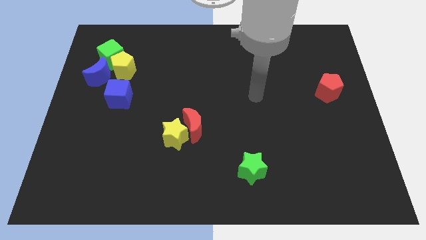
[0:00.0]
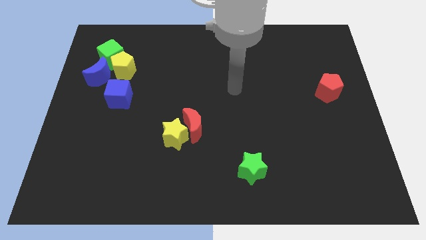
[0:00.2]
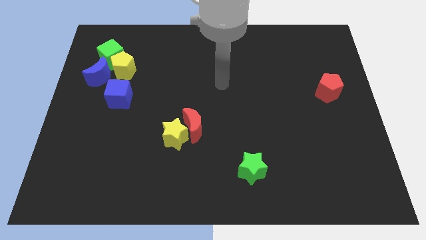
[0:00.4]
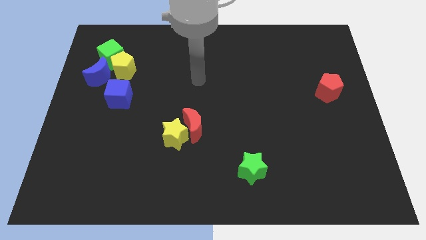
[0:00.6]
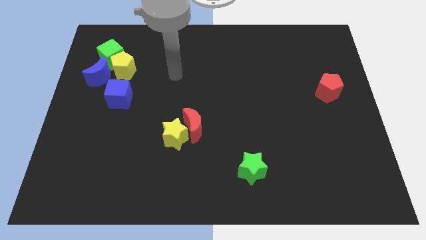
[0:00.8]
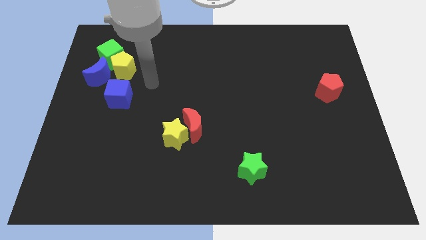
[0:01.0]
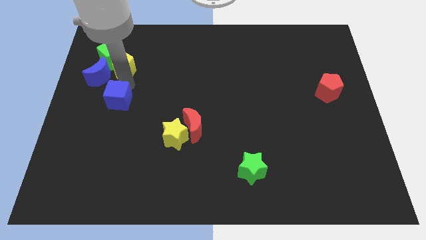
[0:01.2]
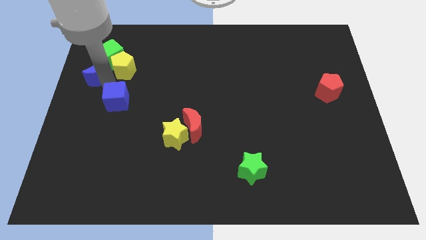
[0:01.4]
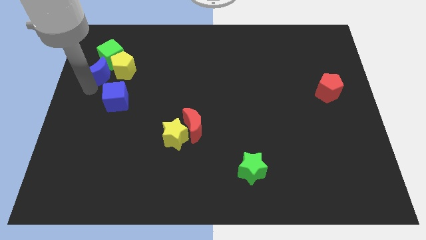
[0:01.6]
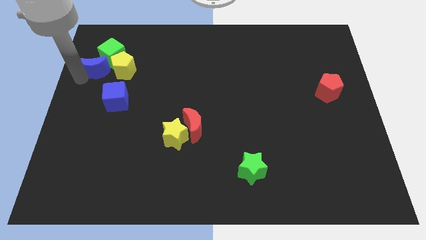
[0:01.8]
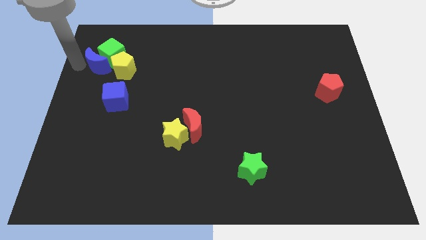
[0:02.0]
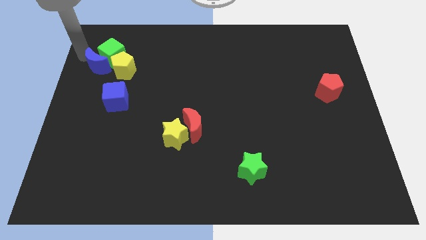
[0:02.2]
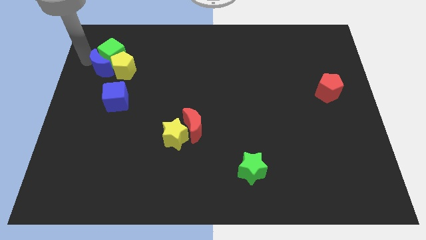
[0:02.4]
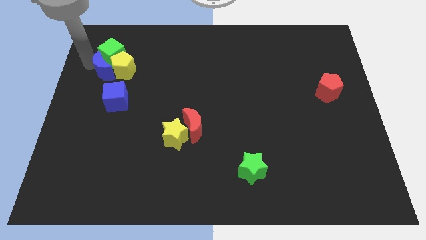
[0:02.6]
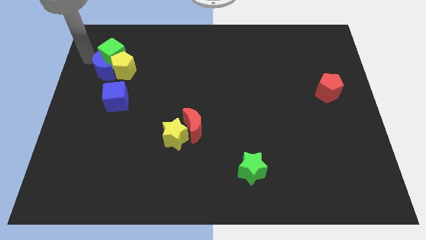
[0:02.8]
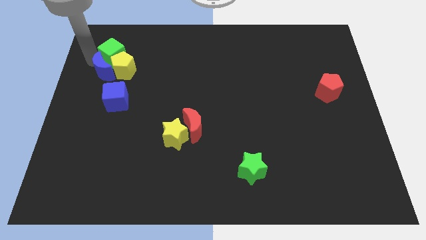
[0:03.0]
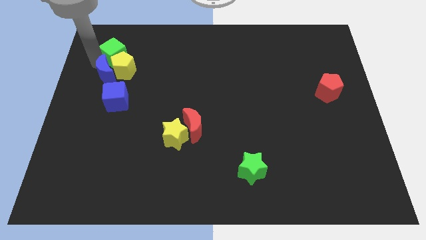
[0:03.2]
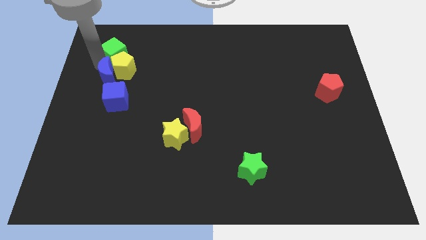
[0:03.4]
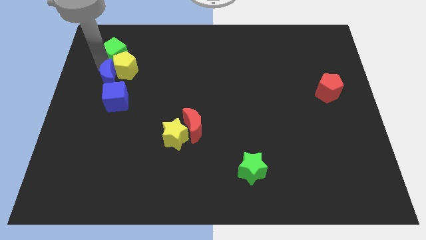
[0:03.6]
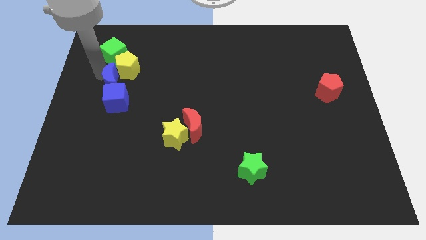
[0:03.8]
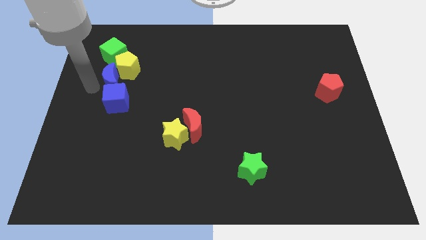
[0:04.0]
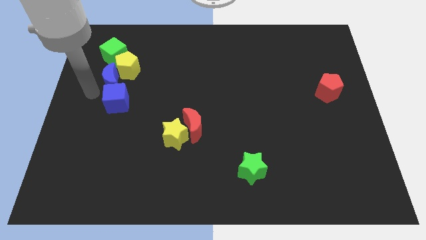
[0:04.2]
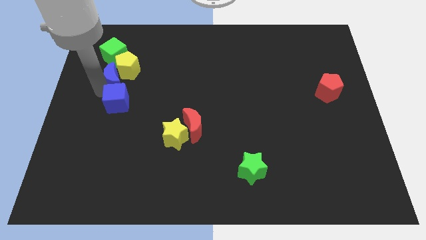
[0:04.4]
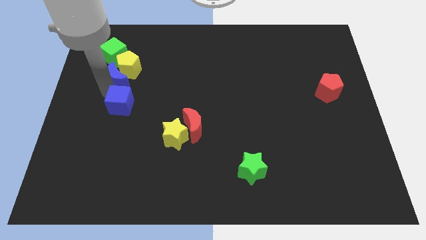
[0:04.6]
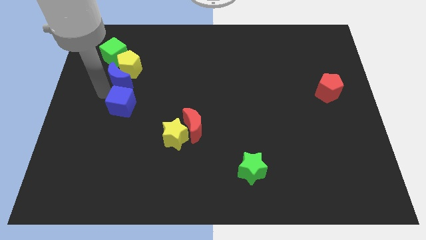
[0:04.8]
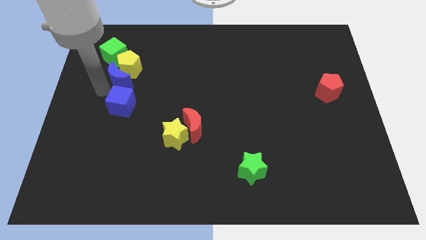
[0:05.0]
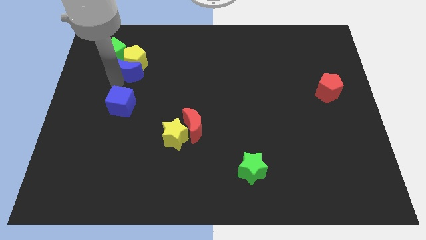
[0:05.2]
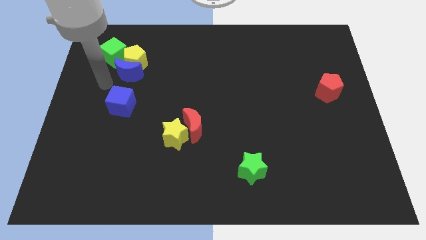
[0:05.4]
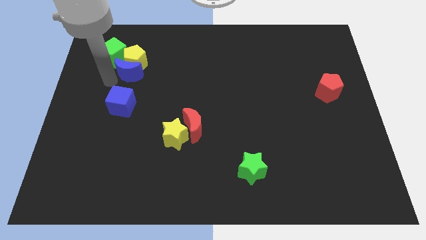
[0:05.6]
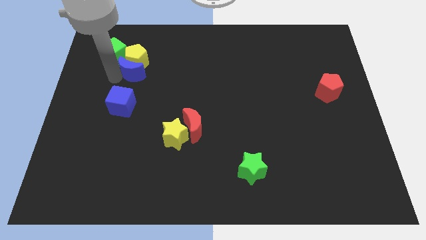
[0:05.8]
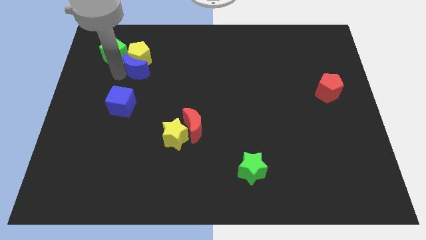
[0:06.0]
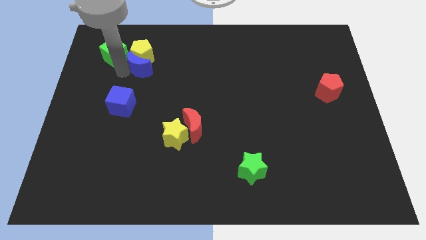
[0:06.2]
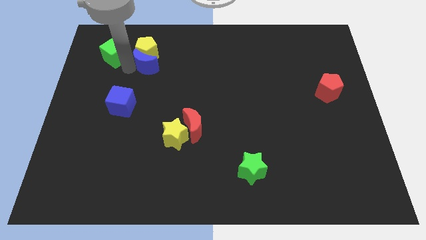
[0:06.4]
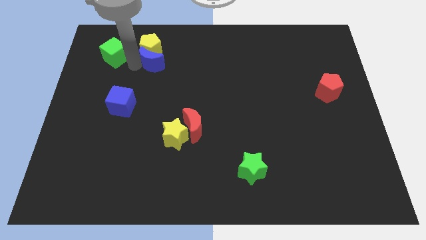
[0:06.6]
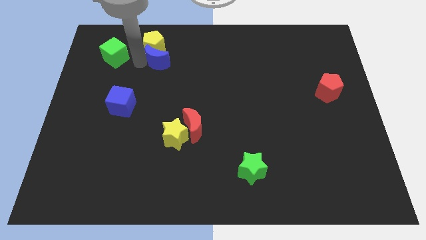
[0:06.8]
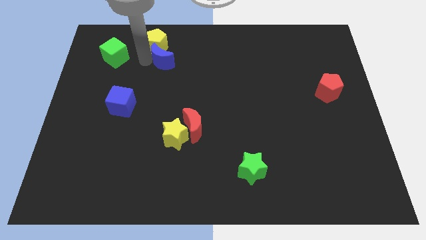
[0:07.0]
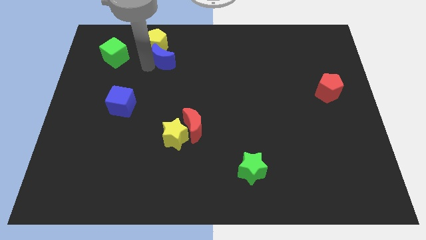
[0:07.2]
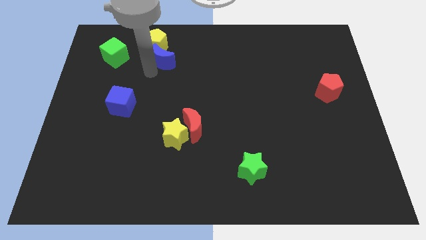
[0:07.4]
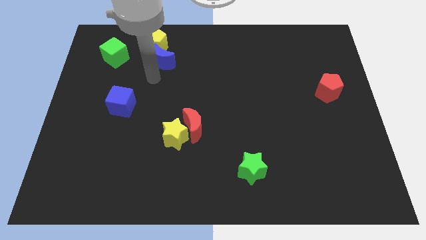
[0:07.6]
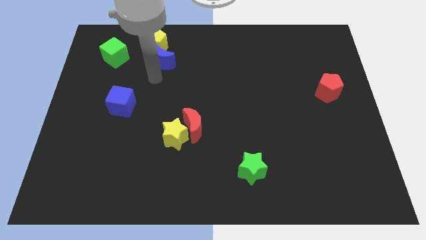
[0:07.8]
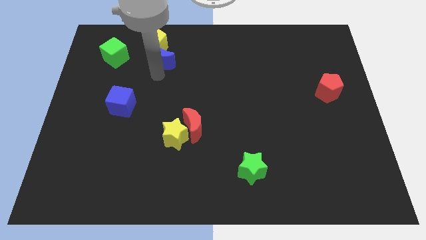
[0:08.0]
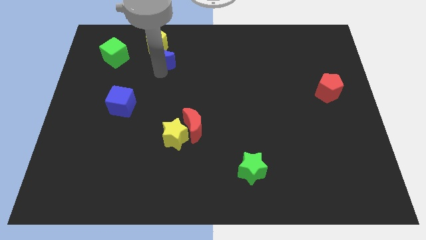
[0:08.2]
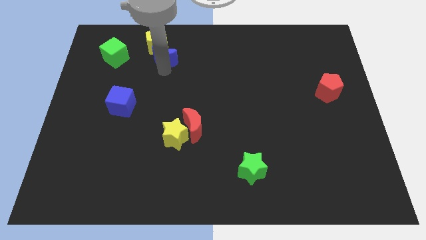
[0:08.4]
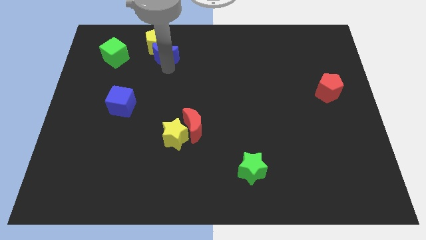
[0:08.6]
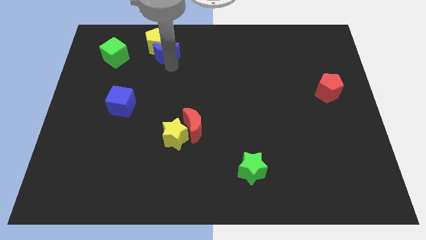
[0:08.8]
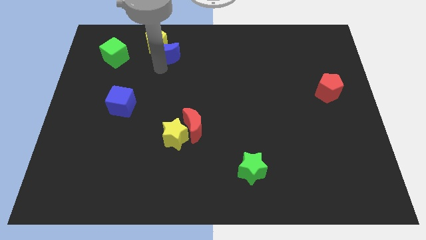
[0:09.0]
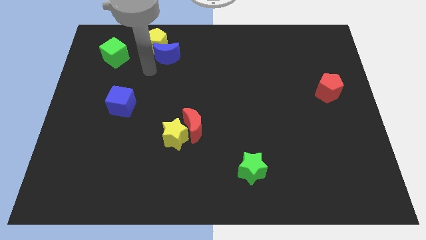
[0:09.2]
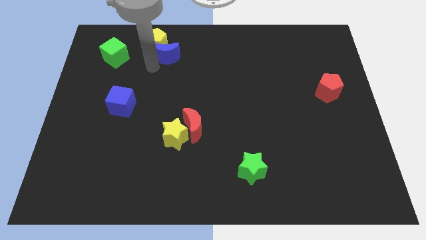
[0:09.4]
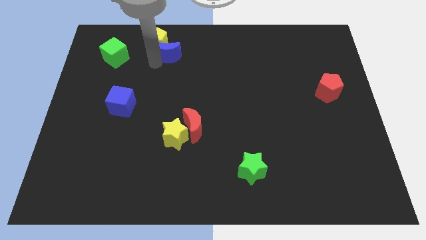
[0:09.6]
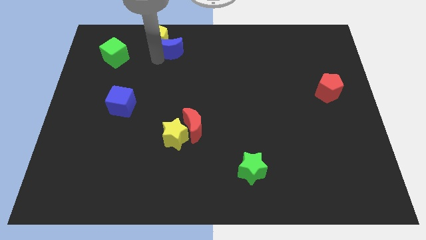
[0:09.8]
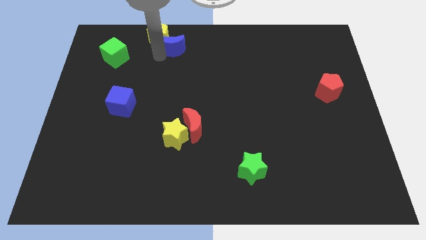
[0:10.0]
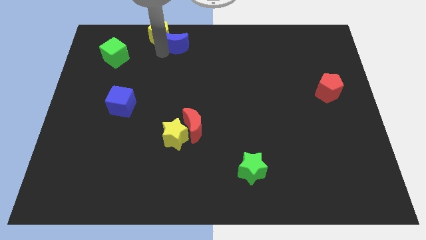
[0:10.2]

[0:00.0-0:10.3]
move the blue moon to the top side
